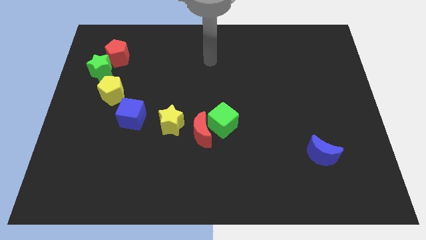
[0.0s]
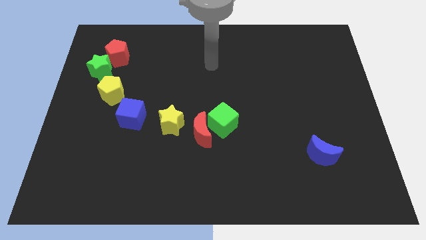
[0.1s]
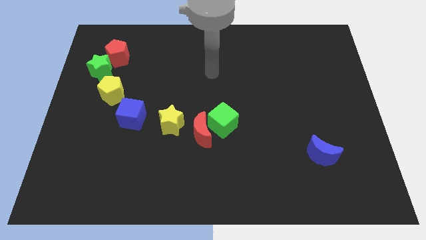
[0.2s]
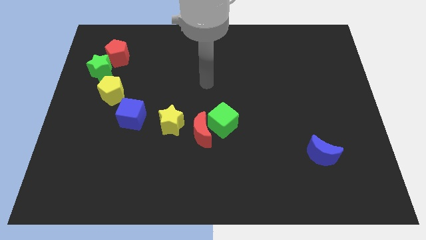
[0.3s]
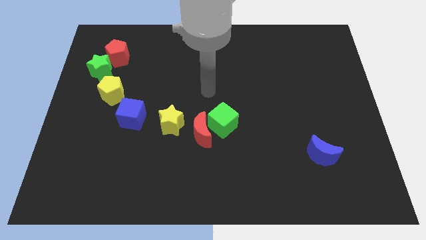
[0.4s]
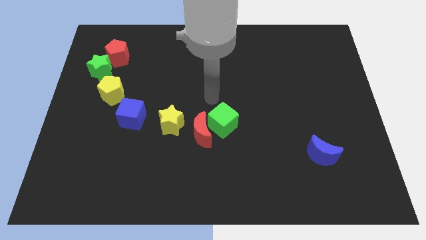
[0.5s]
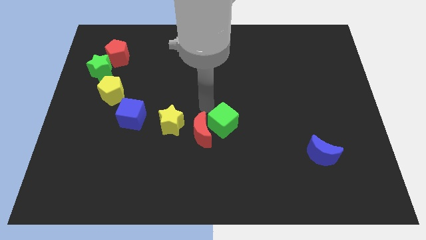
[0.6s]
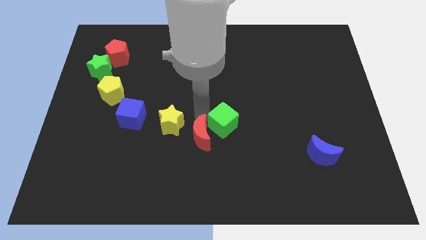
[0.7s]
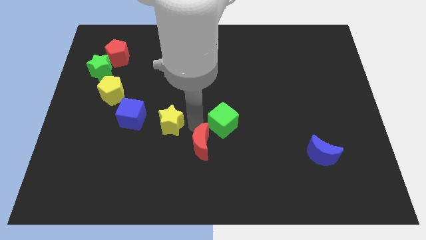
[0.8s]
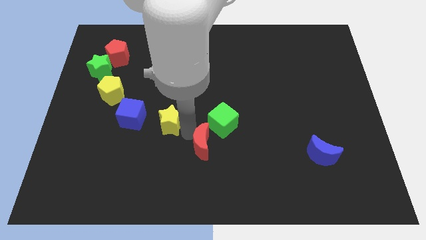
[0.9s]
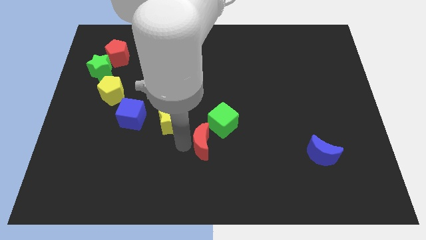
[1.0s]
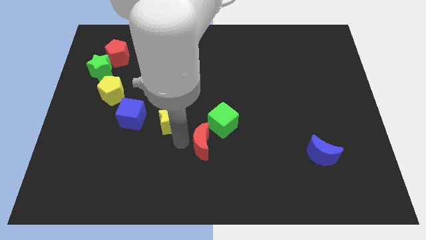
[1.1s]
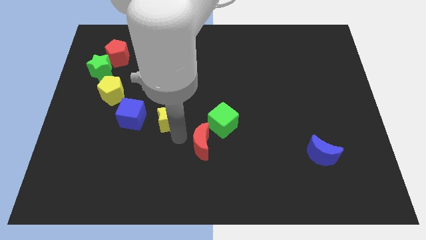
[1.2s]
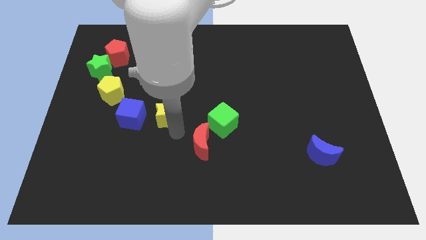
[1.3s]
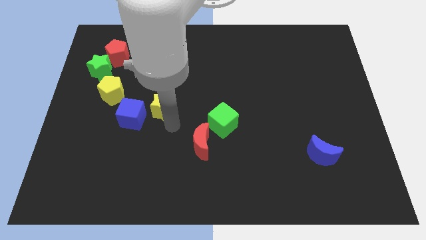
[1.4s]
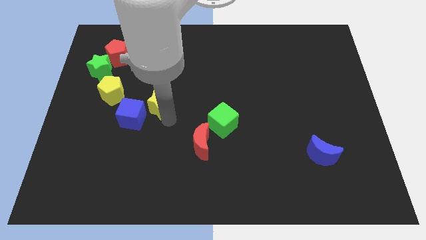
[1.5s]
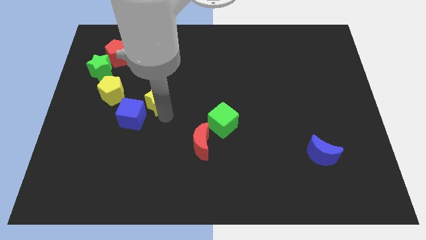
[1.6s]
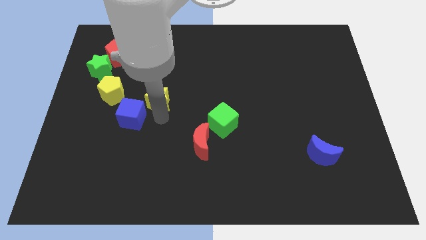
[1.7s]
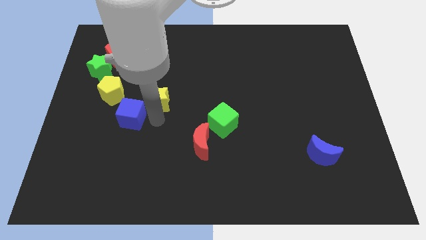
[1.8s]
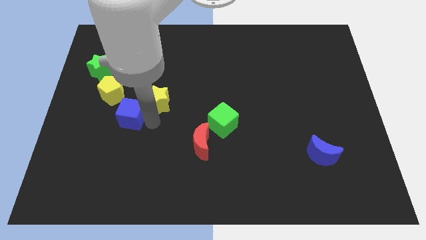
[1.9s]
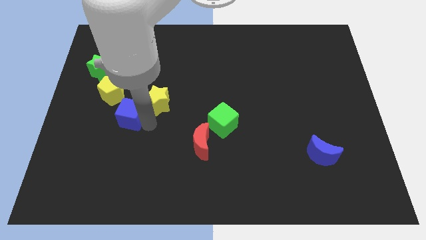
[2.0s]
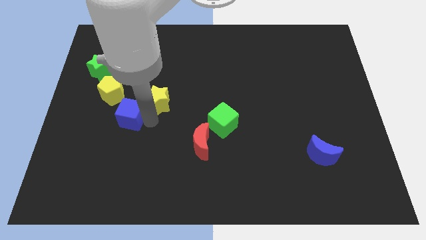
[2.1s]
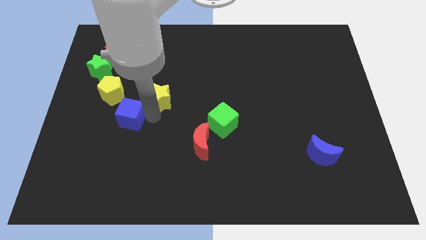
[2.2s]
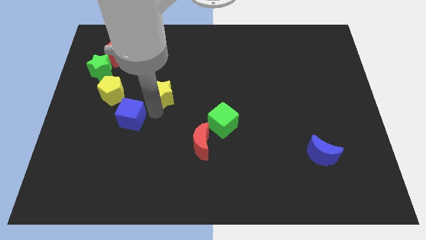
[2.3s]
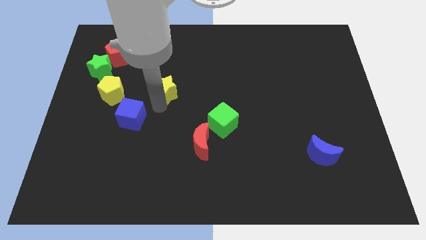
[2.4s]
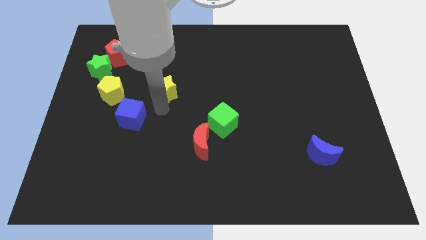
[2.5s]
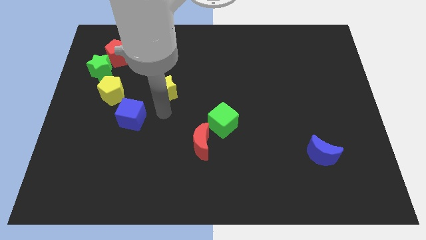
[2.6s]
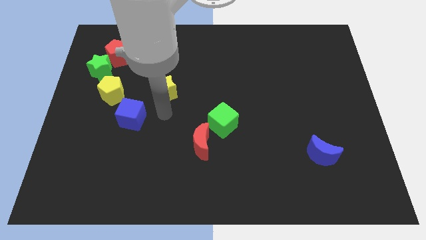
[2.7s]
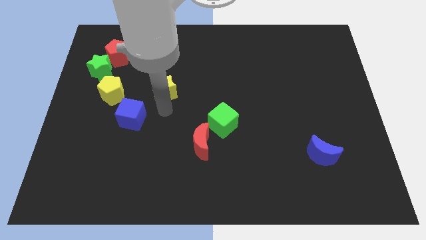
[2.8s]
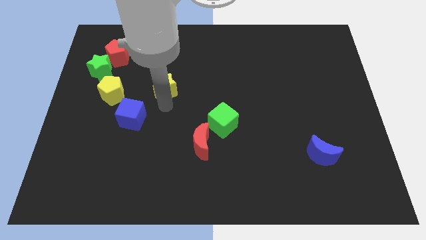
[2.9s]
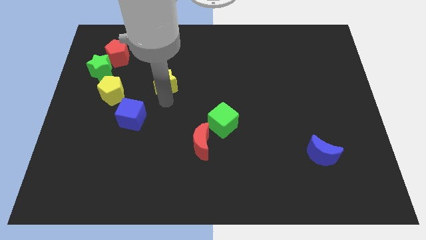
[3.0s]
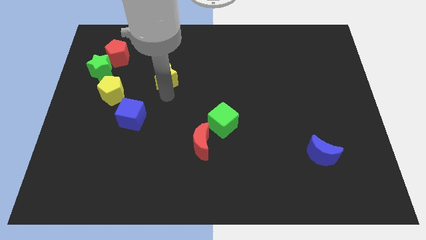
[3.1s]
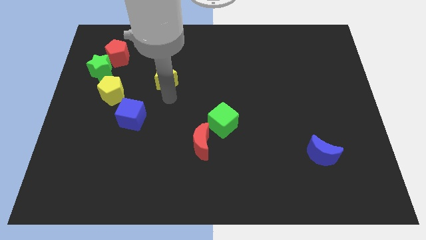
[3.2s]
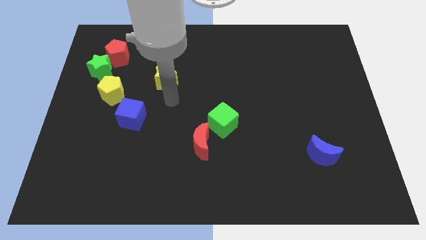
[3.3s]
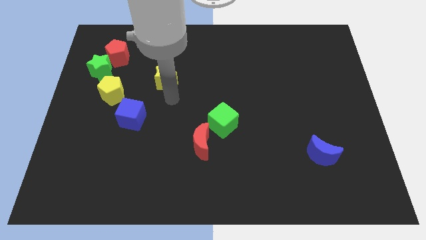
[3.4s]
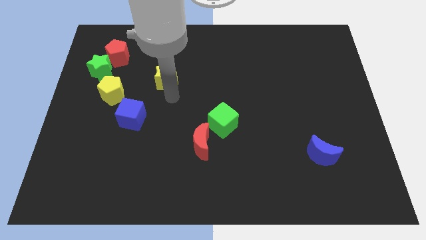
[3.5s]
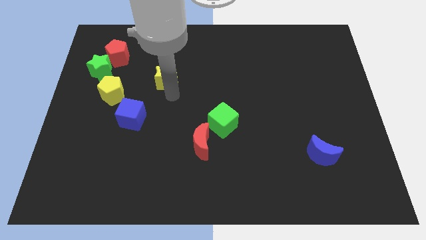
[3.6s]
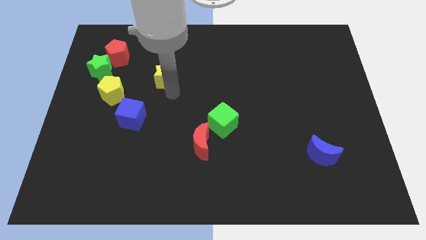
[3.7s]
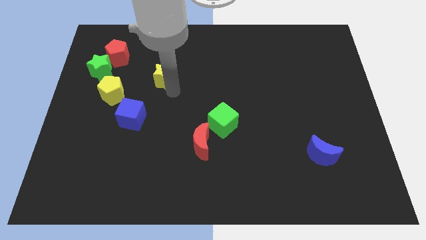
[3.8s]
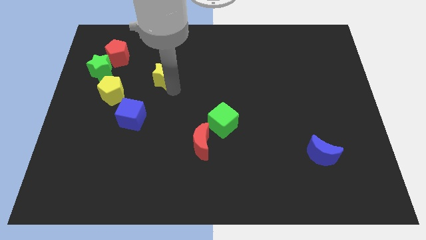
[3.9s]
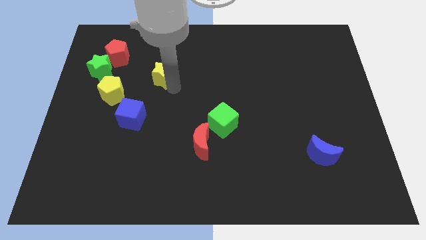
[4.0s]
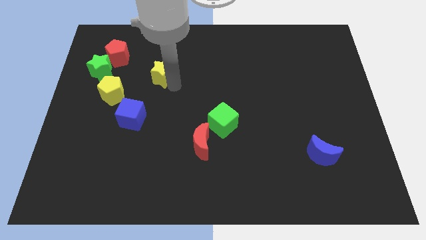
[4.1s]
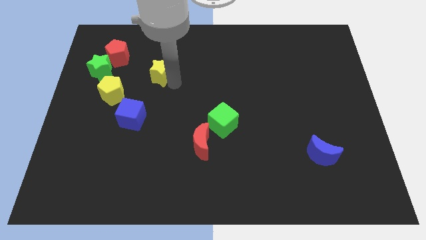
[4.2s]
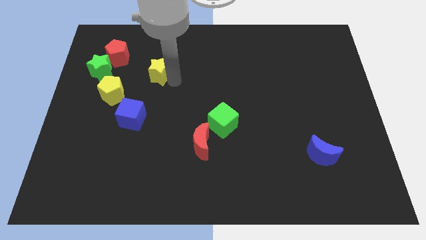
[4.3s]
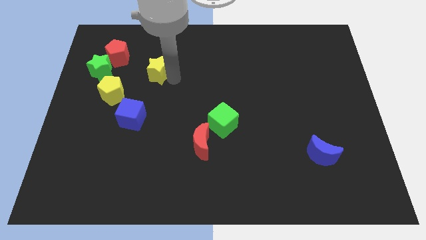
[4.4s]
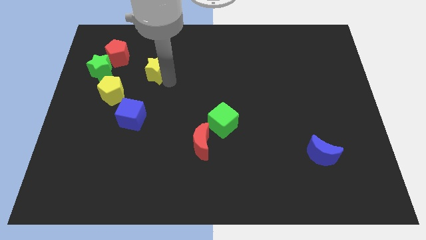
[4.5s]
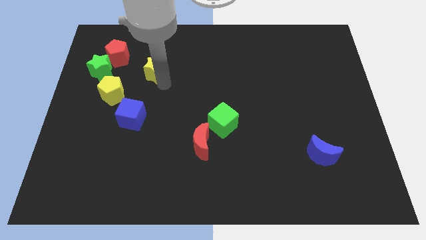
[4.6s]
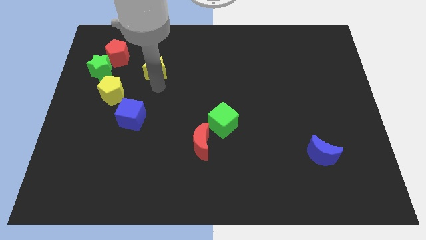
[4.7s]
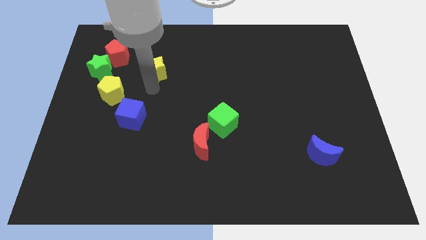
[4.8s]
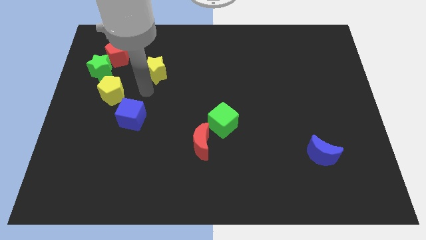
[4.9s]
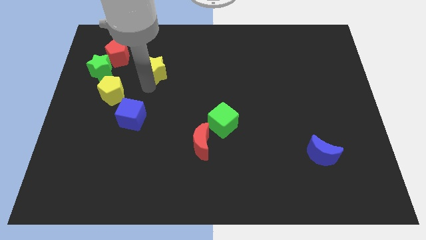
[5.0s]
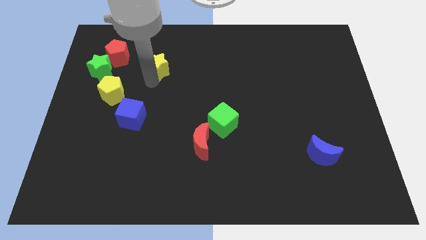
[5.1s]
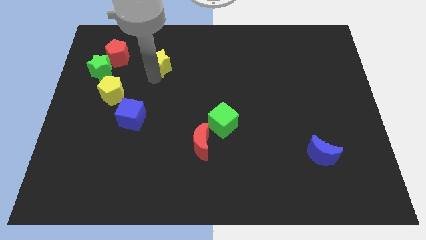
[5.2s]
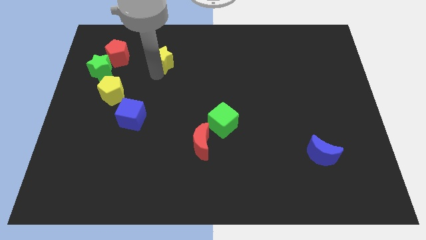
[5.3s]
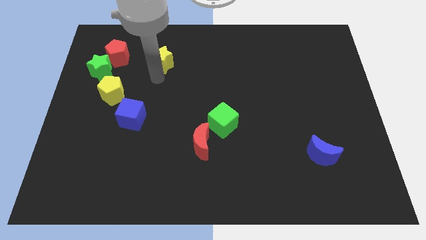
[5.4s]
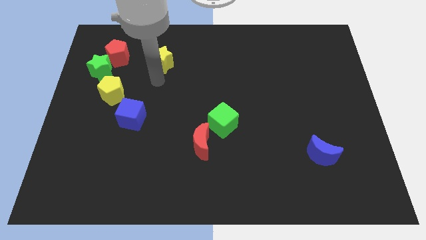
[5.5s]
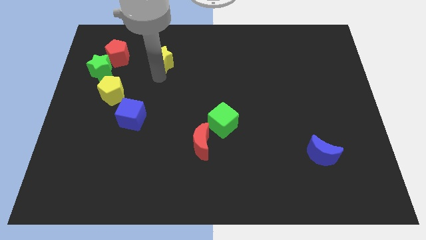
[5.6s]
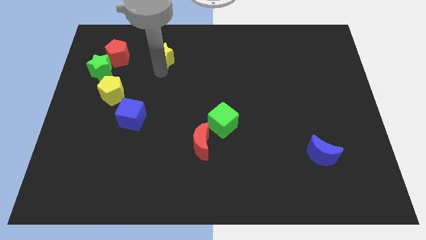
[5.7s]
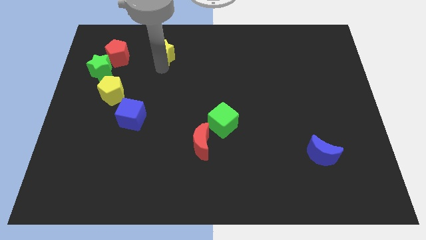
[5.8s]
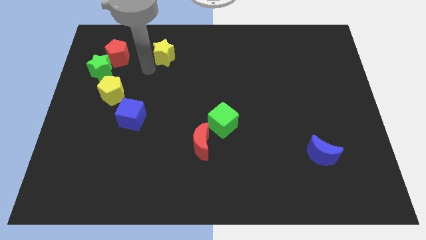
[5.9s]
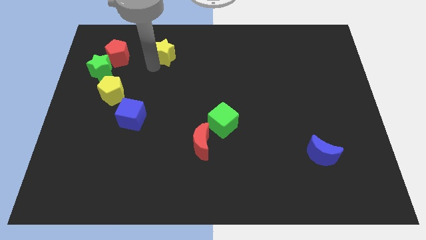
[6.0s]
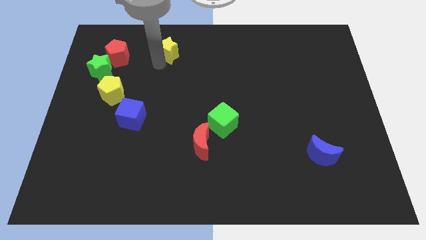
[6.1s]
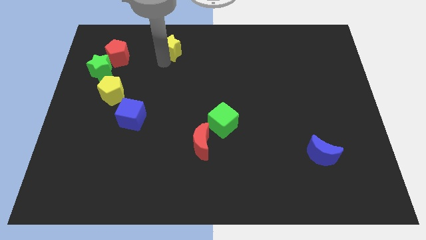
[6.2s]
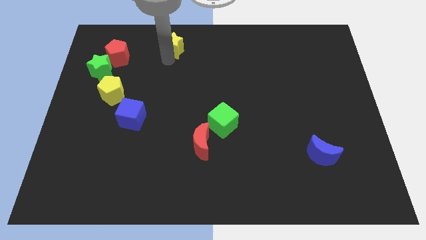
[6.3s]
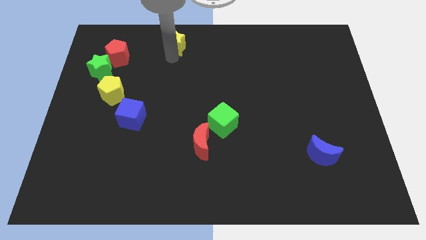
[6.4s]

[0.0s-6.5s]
push the yellow star to the towards your base

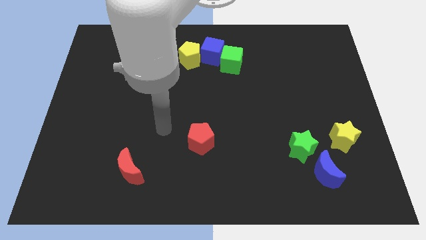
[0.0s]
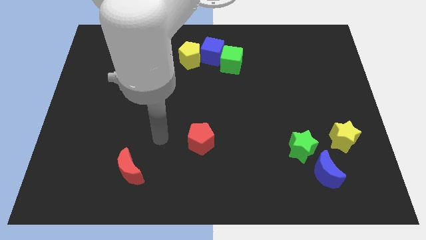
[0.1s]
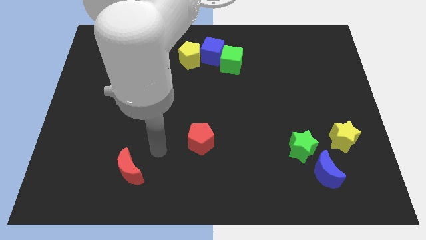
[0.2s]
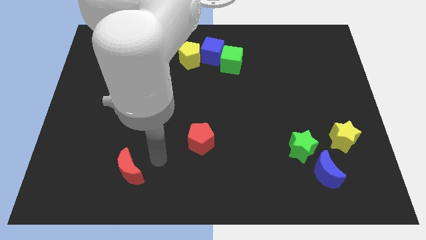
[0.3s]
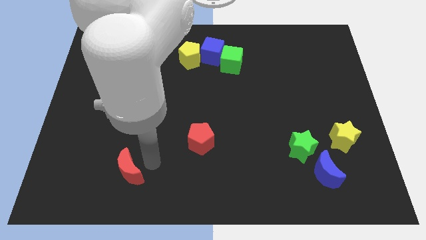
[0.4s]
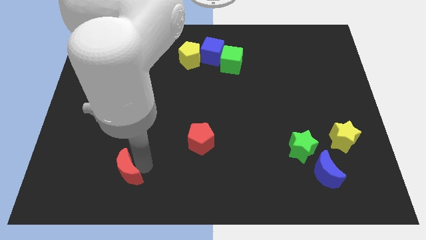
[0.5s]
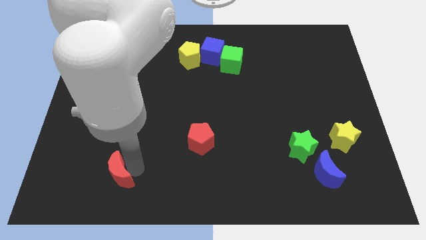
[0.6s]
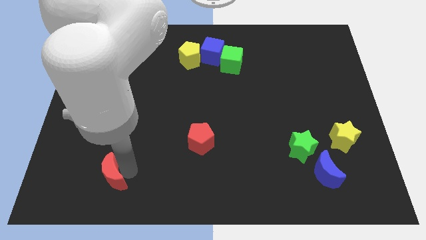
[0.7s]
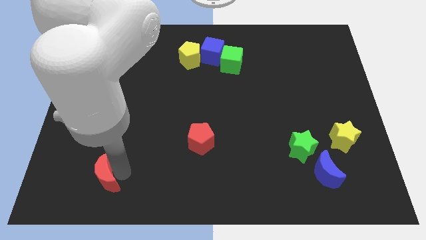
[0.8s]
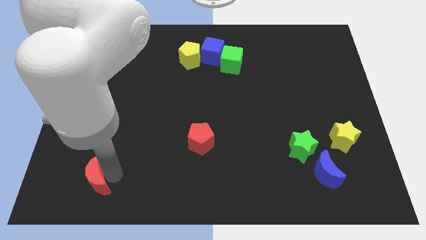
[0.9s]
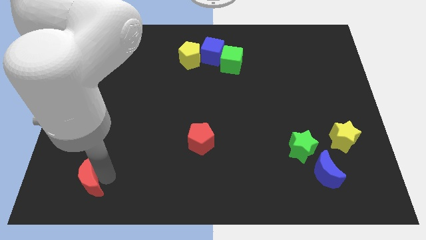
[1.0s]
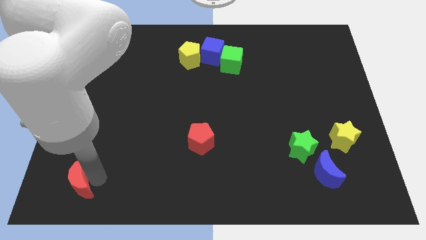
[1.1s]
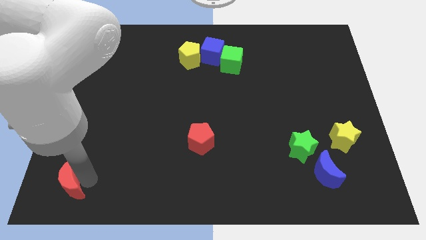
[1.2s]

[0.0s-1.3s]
put the red moon to the lower left corner
